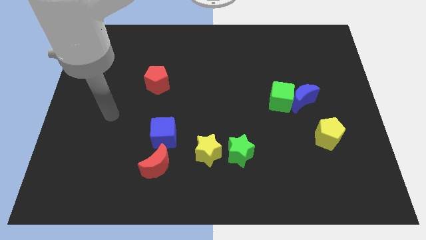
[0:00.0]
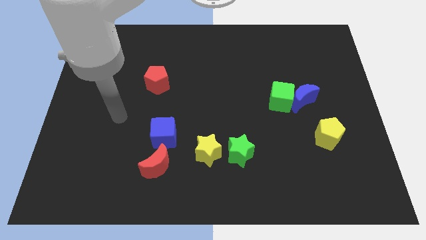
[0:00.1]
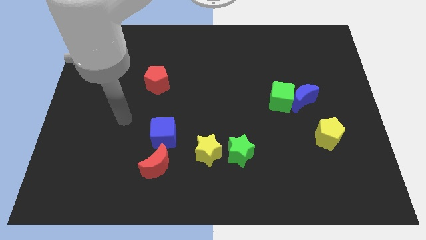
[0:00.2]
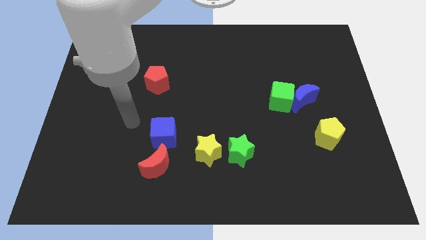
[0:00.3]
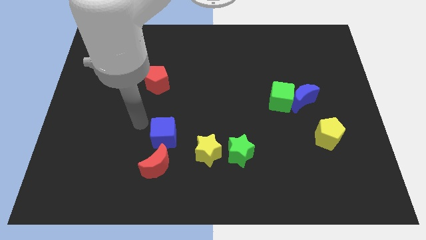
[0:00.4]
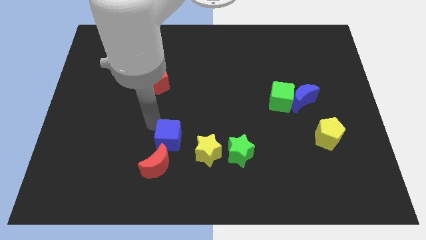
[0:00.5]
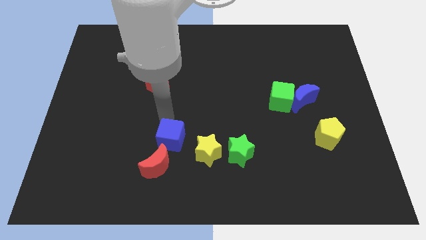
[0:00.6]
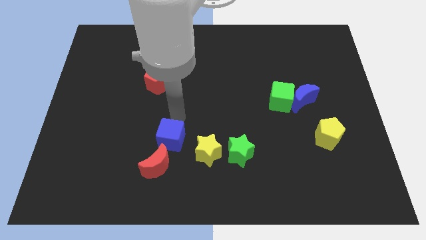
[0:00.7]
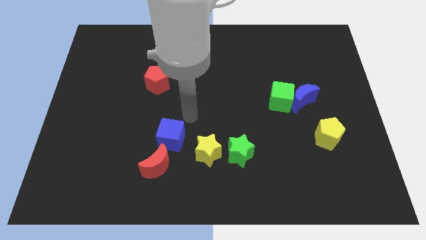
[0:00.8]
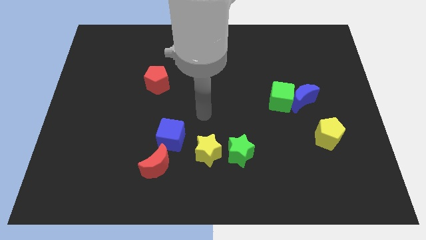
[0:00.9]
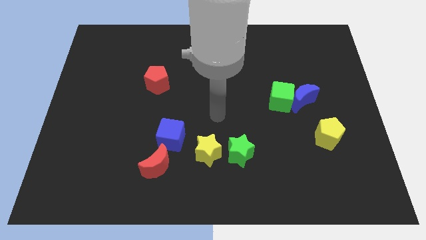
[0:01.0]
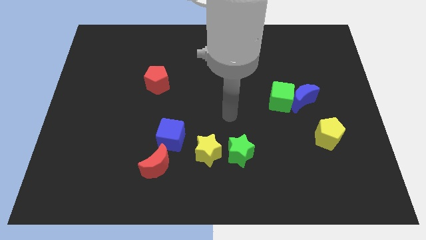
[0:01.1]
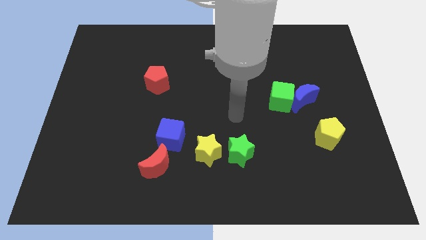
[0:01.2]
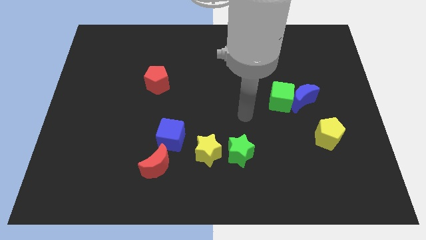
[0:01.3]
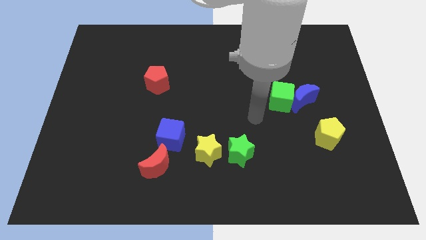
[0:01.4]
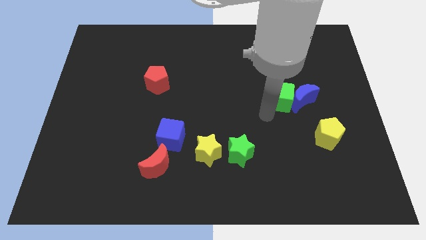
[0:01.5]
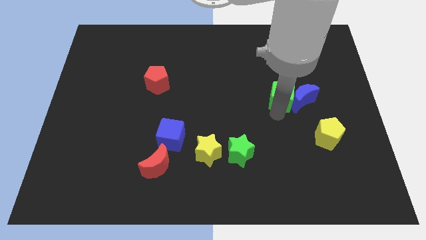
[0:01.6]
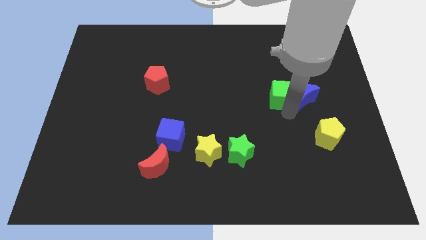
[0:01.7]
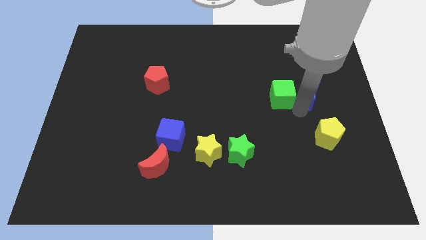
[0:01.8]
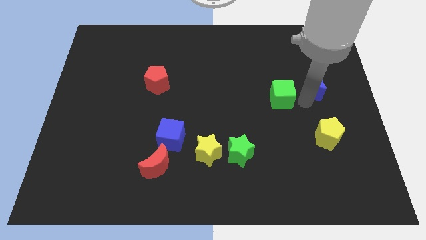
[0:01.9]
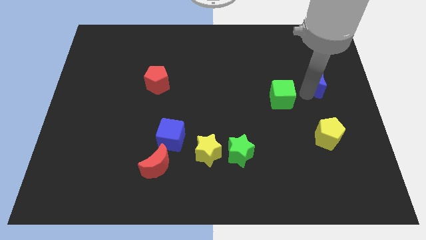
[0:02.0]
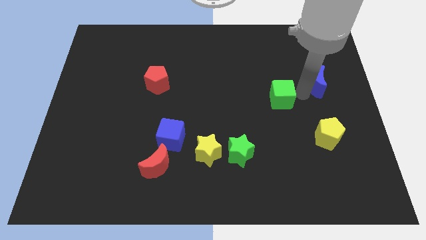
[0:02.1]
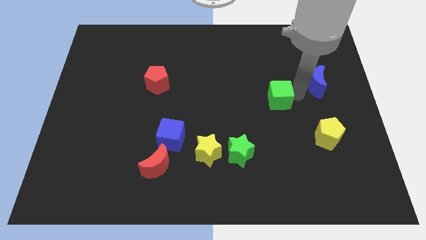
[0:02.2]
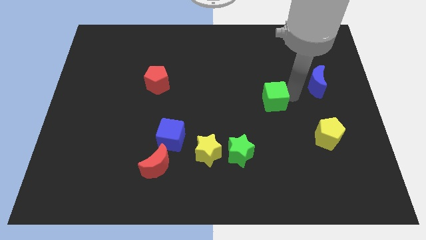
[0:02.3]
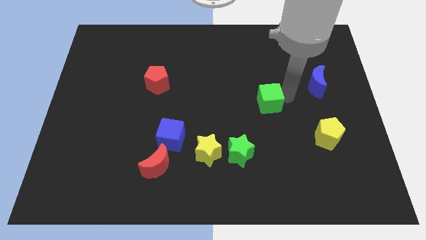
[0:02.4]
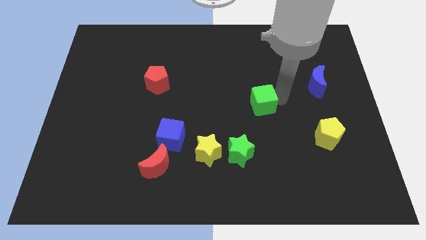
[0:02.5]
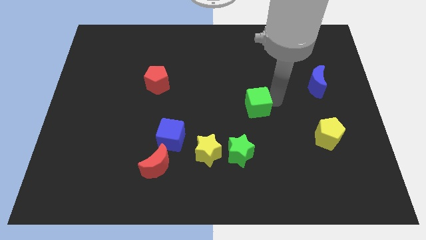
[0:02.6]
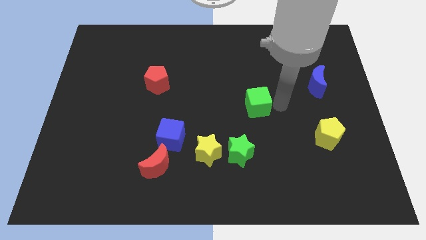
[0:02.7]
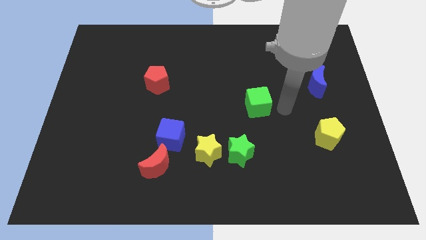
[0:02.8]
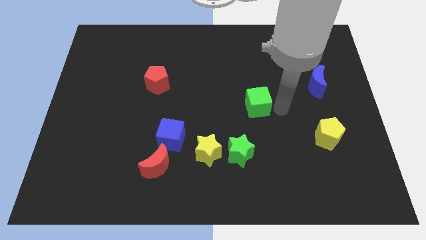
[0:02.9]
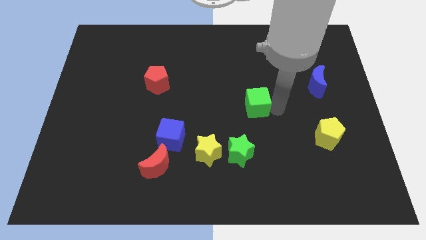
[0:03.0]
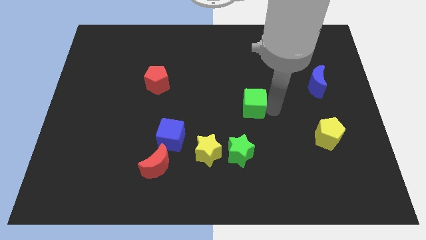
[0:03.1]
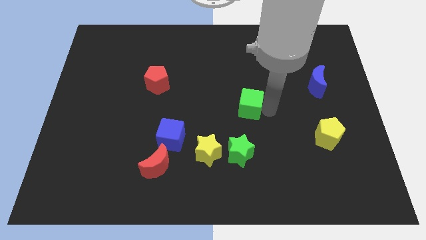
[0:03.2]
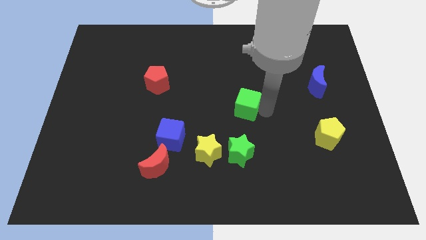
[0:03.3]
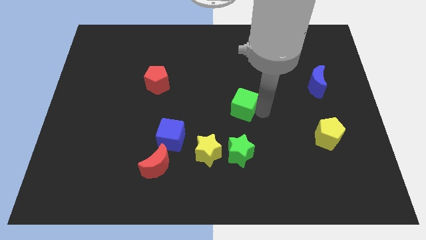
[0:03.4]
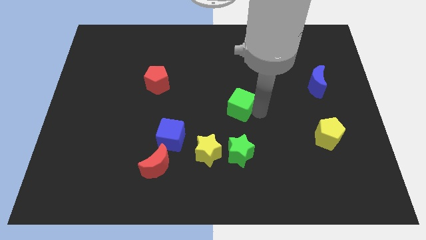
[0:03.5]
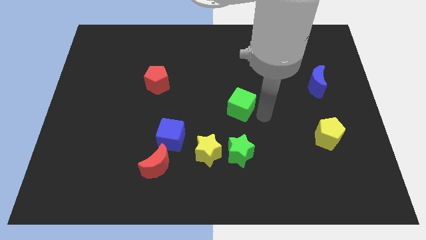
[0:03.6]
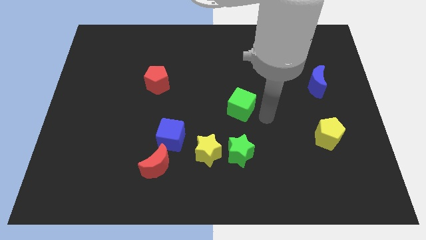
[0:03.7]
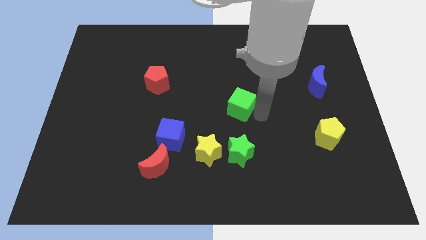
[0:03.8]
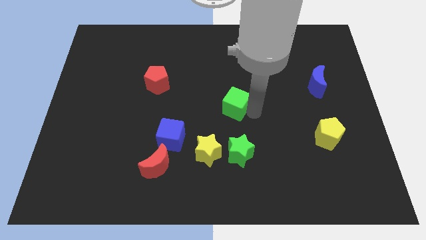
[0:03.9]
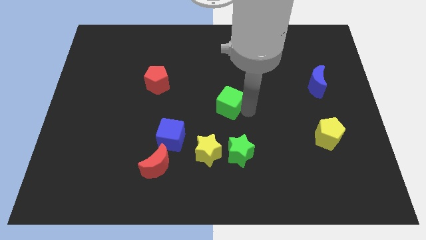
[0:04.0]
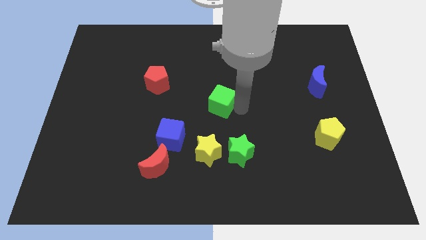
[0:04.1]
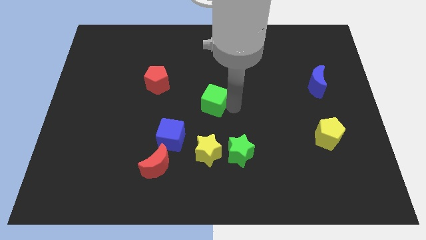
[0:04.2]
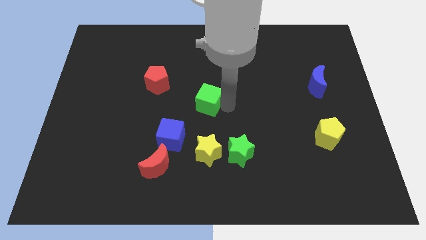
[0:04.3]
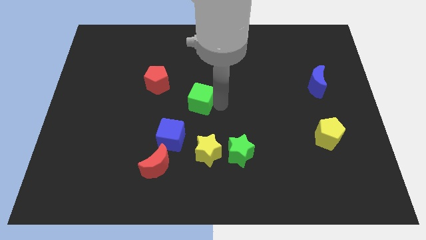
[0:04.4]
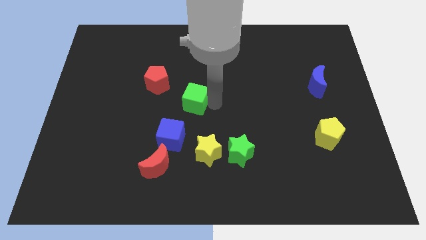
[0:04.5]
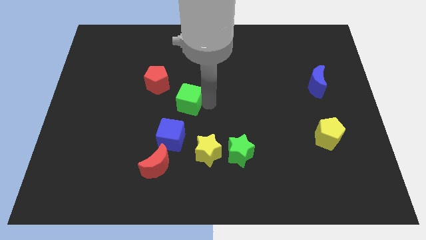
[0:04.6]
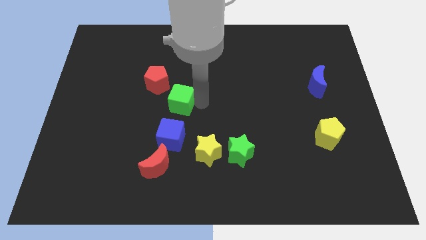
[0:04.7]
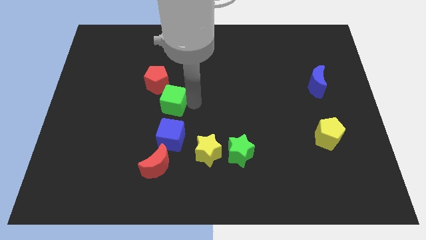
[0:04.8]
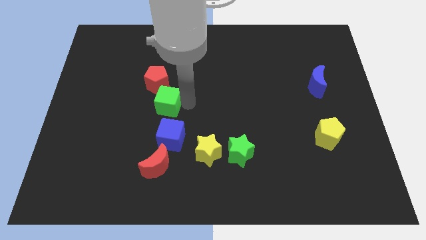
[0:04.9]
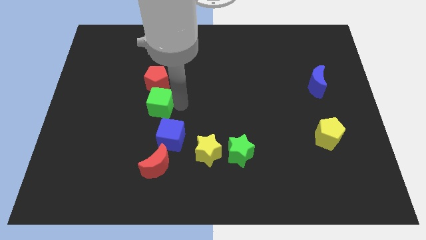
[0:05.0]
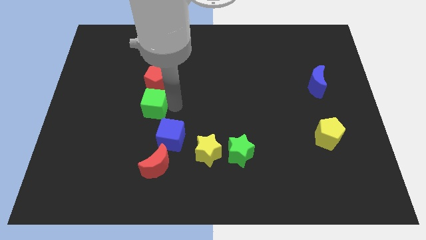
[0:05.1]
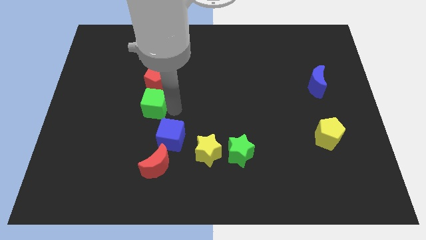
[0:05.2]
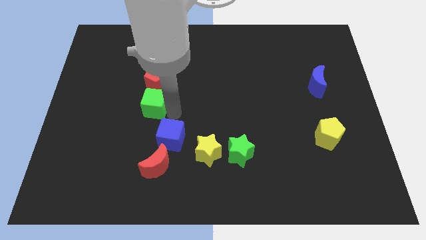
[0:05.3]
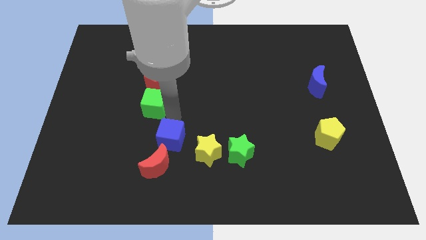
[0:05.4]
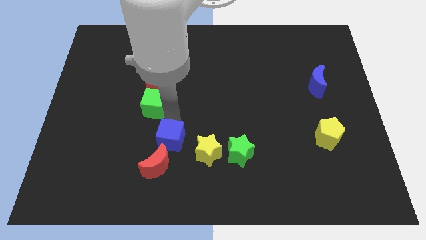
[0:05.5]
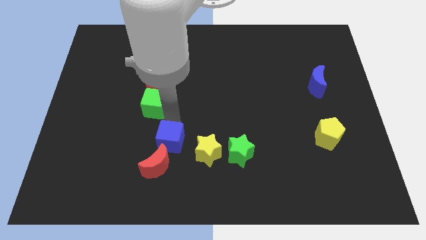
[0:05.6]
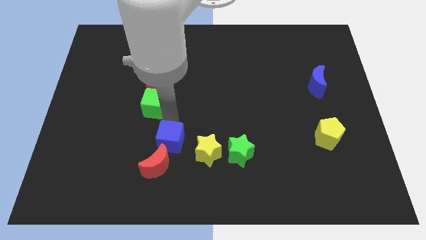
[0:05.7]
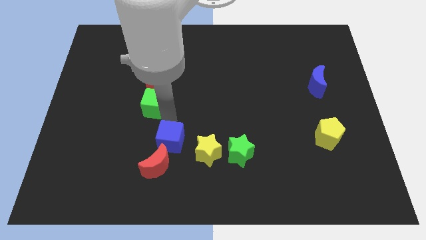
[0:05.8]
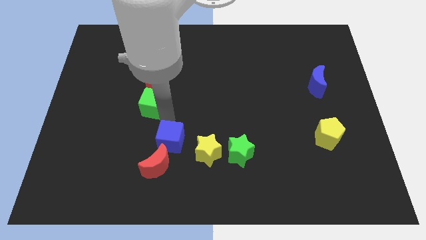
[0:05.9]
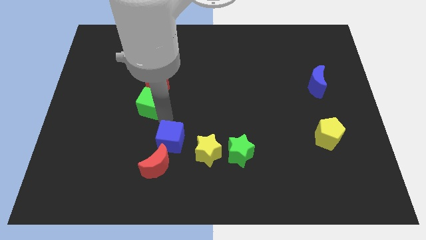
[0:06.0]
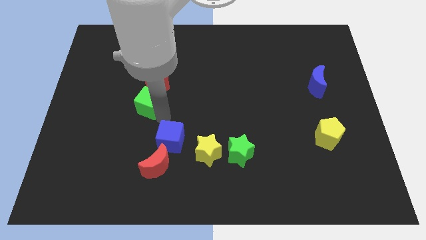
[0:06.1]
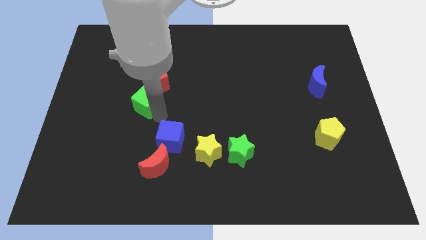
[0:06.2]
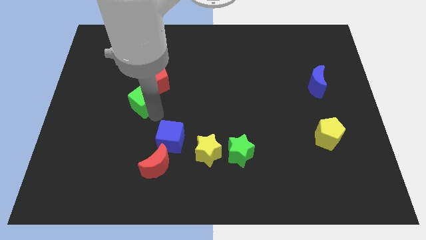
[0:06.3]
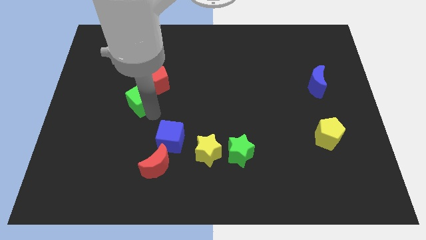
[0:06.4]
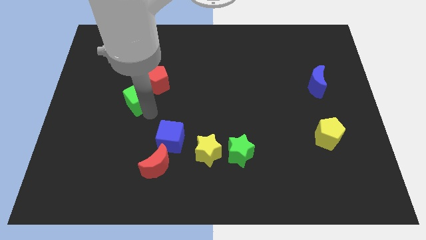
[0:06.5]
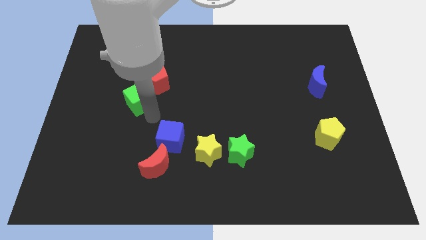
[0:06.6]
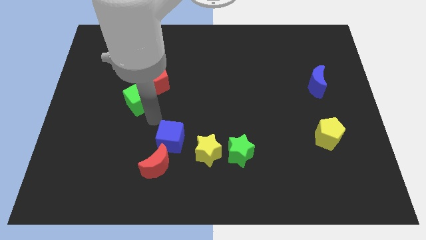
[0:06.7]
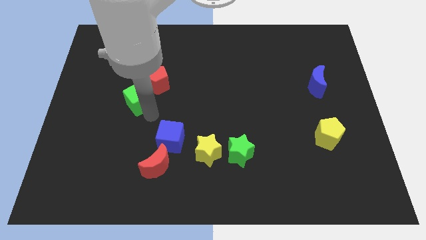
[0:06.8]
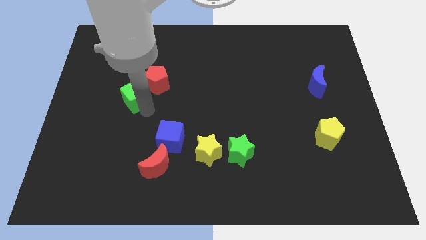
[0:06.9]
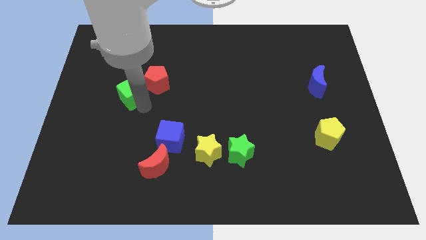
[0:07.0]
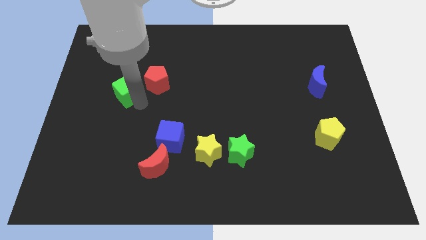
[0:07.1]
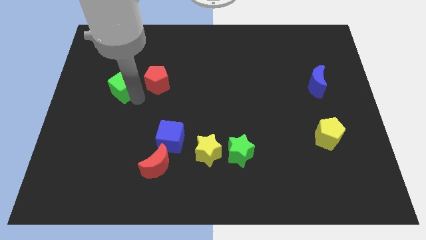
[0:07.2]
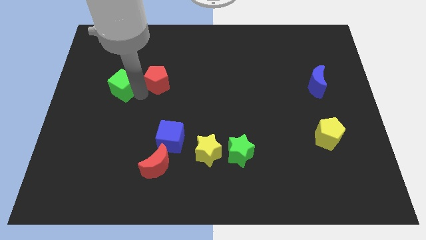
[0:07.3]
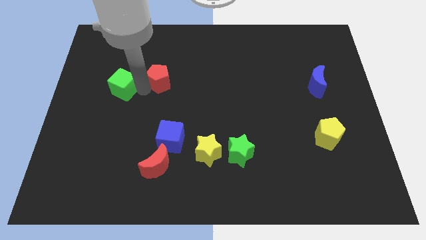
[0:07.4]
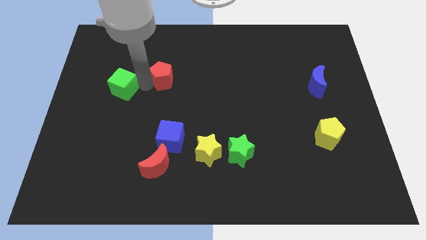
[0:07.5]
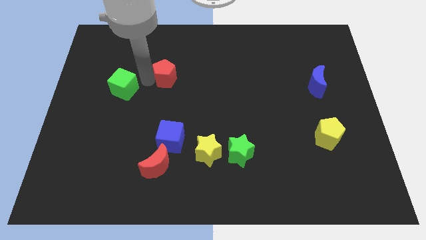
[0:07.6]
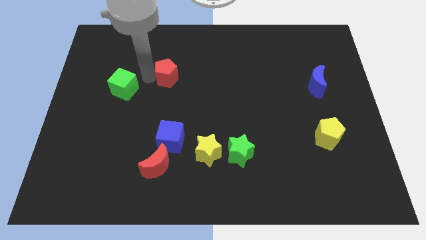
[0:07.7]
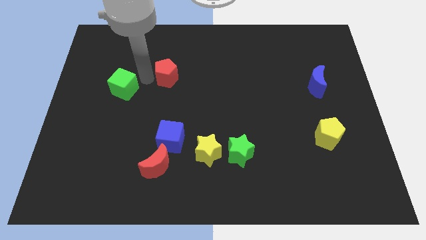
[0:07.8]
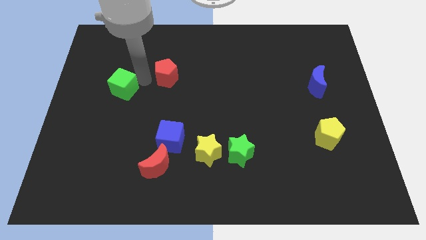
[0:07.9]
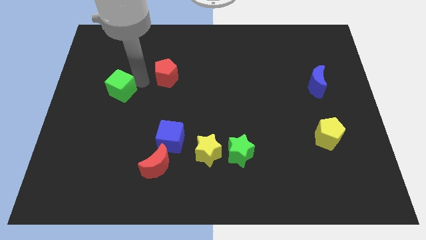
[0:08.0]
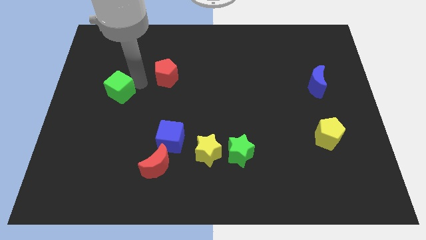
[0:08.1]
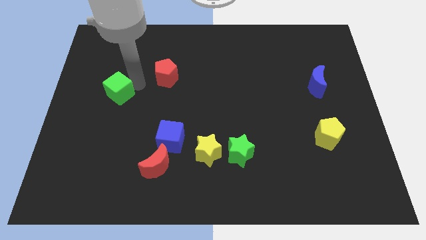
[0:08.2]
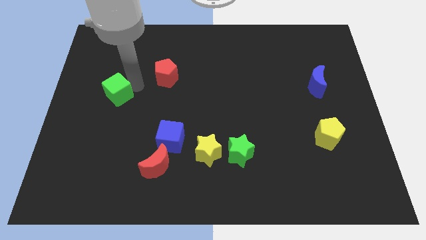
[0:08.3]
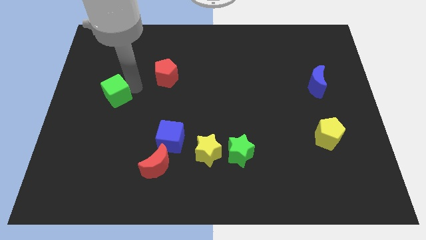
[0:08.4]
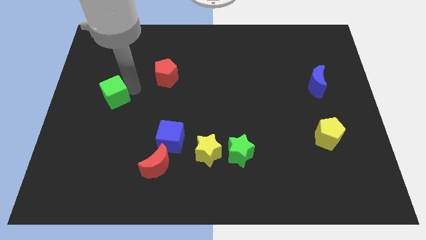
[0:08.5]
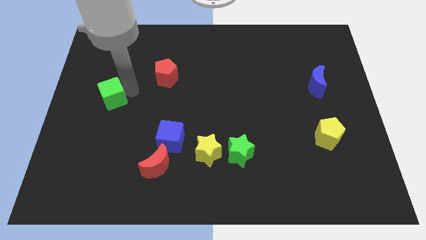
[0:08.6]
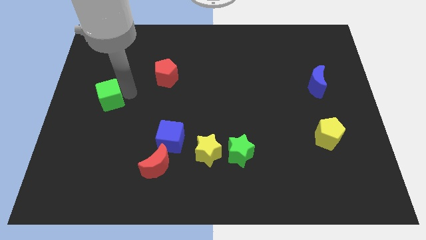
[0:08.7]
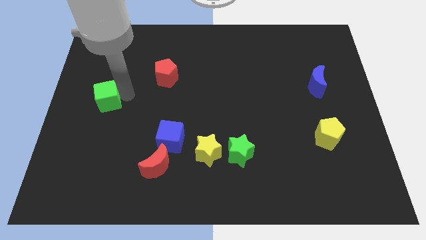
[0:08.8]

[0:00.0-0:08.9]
slide the green cube to the center left
